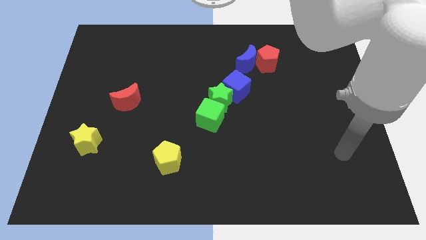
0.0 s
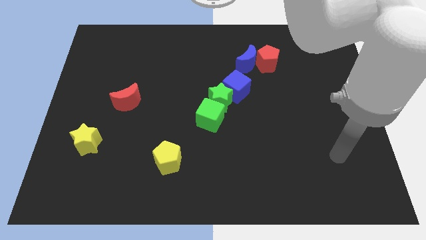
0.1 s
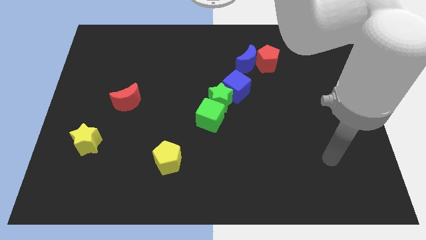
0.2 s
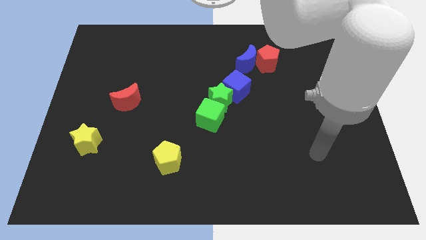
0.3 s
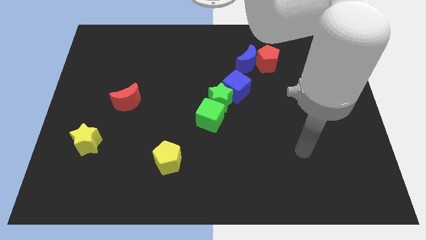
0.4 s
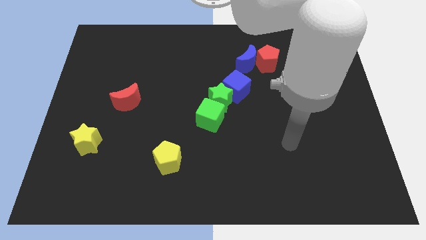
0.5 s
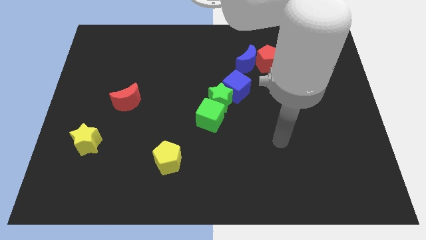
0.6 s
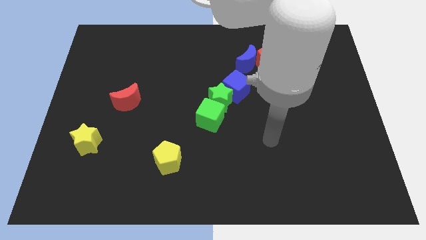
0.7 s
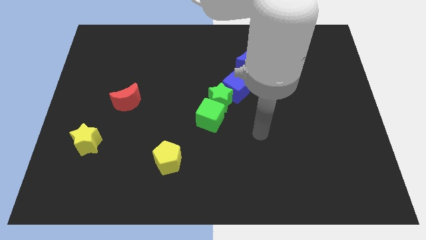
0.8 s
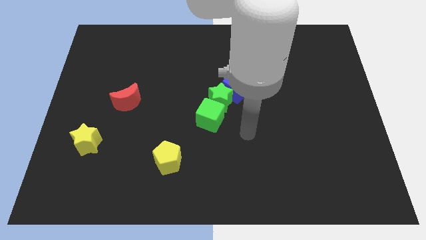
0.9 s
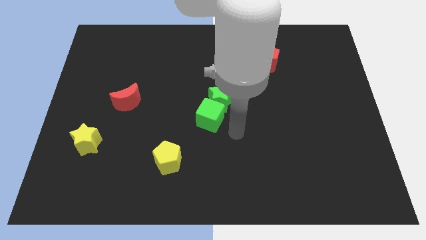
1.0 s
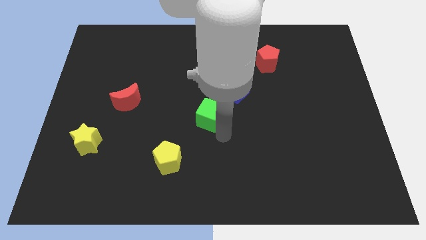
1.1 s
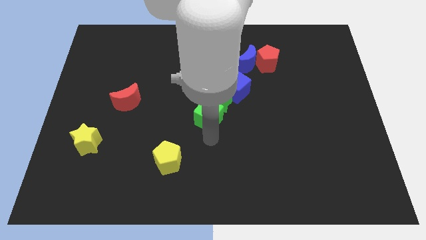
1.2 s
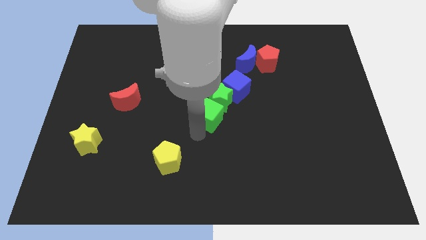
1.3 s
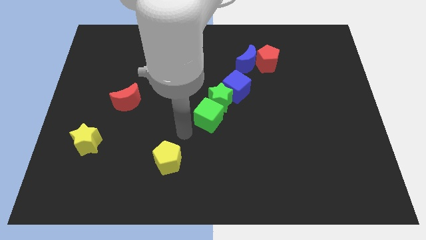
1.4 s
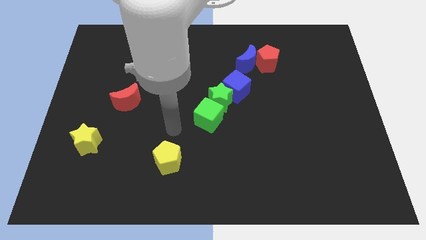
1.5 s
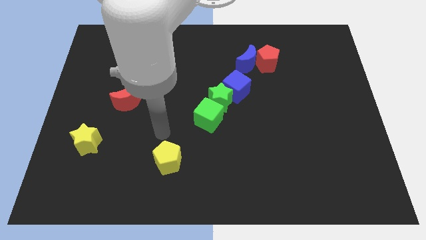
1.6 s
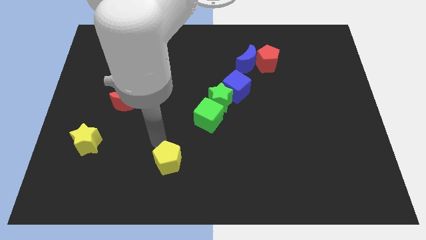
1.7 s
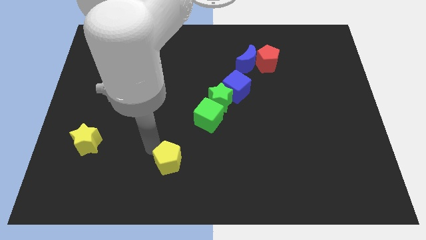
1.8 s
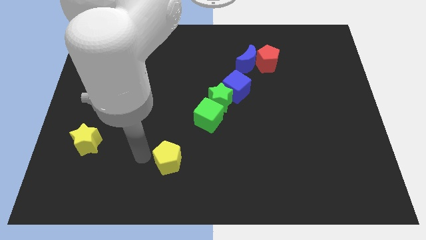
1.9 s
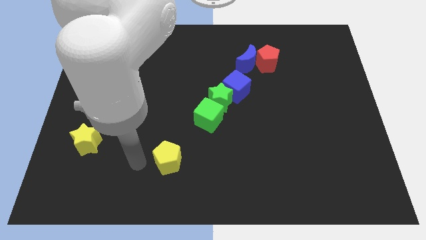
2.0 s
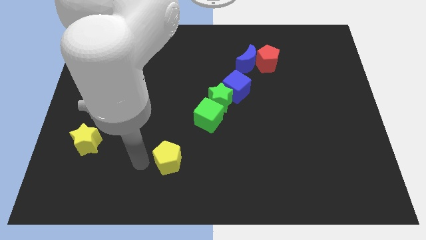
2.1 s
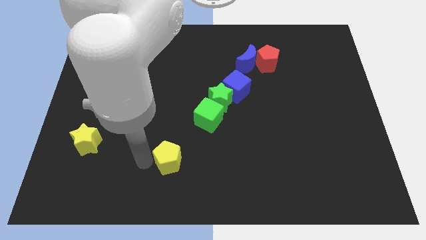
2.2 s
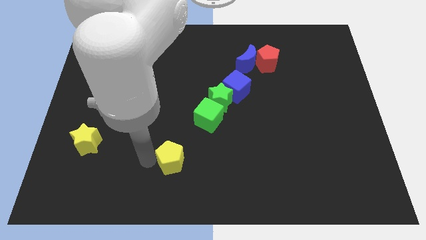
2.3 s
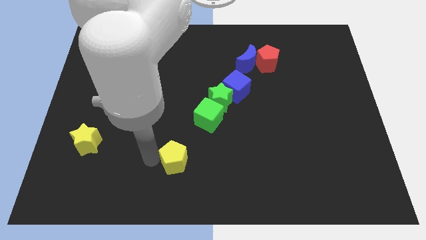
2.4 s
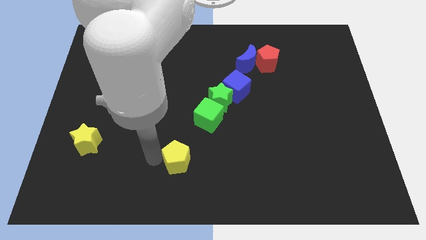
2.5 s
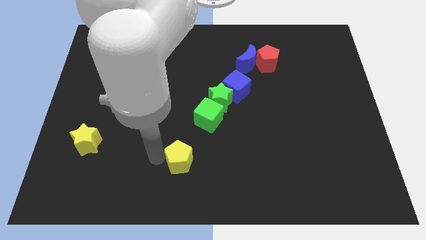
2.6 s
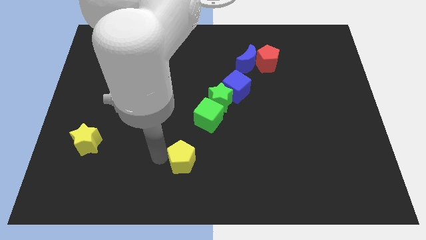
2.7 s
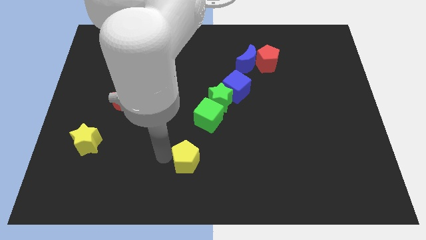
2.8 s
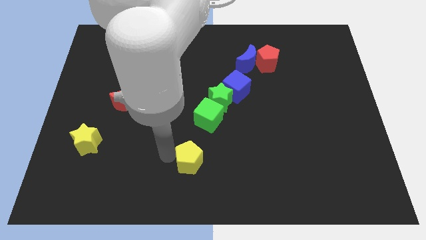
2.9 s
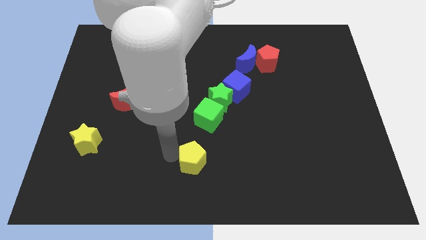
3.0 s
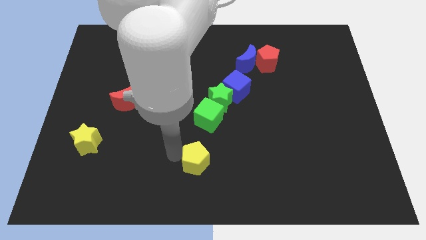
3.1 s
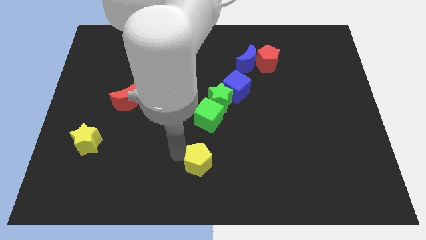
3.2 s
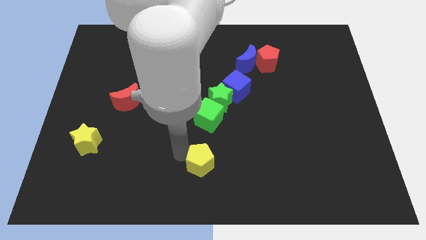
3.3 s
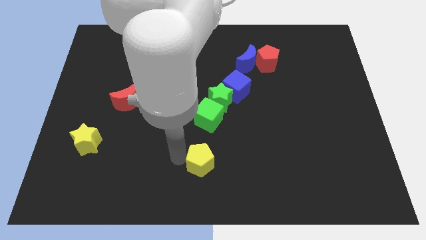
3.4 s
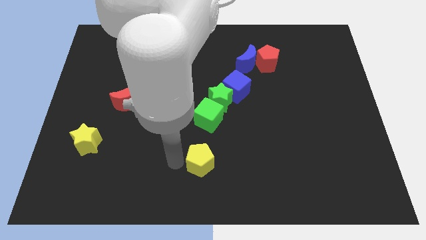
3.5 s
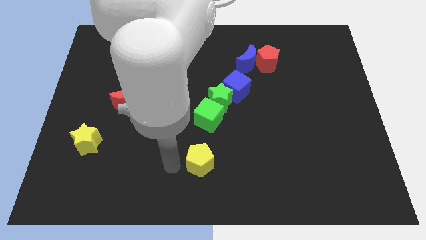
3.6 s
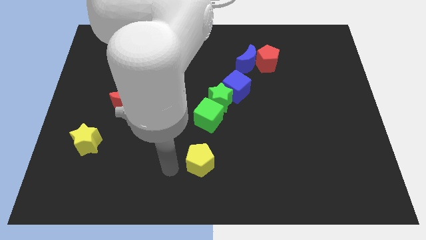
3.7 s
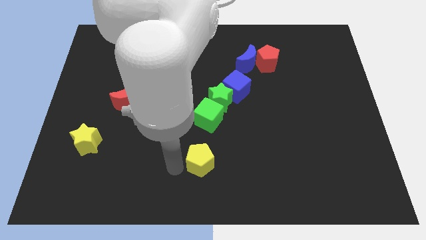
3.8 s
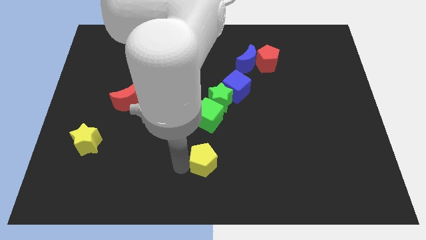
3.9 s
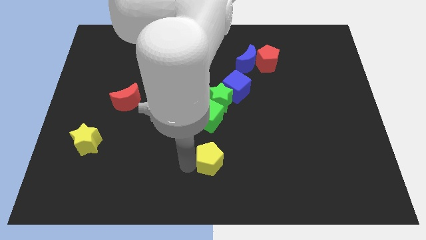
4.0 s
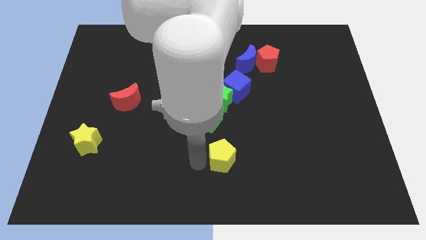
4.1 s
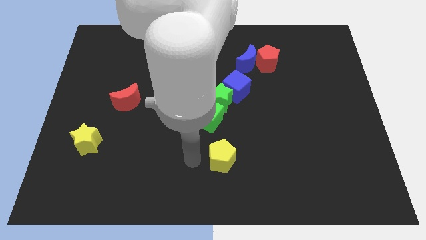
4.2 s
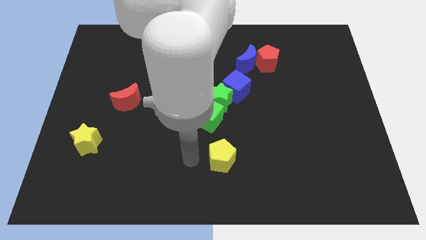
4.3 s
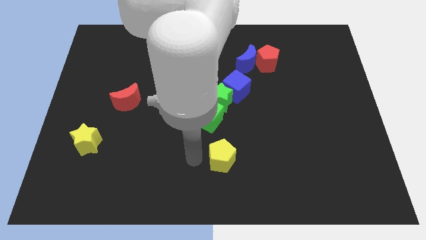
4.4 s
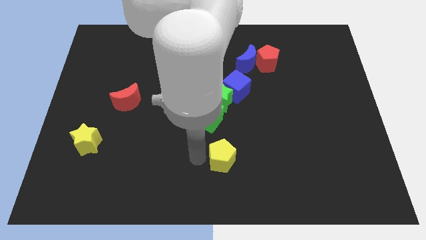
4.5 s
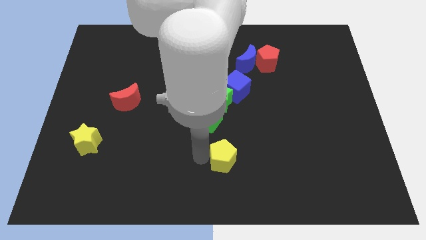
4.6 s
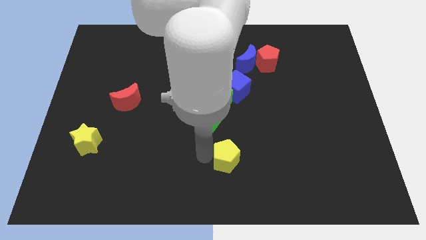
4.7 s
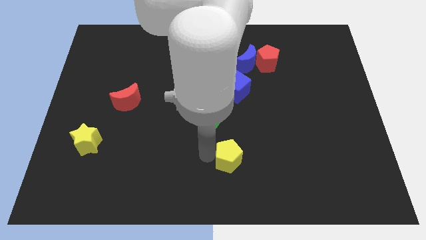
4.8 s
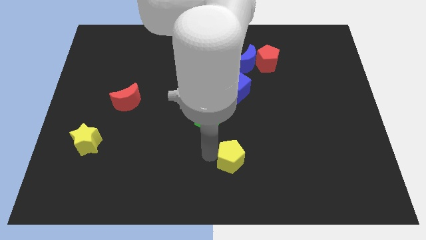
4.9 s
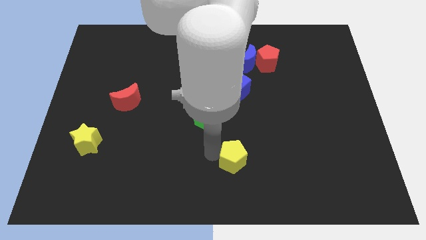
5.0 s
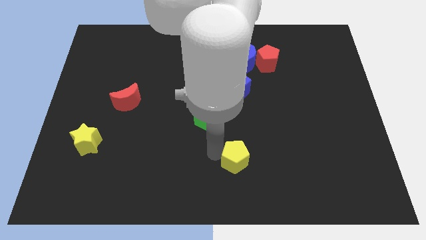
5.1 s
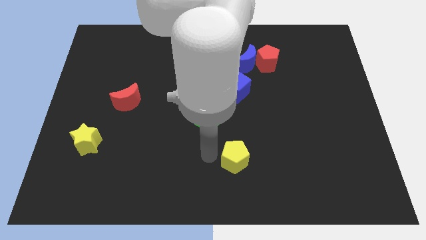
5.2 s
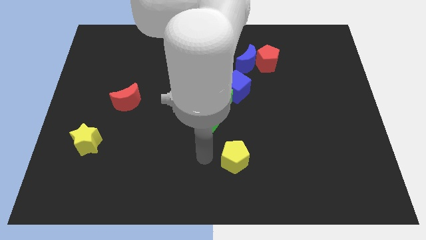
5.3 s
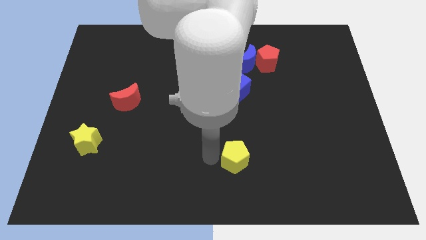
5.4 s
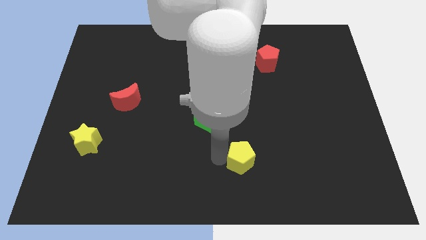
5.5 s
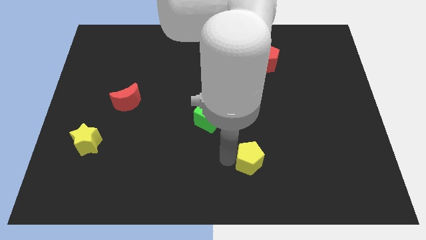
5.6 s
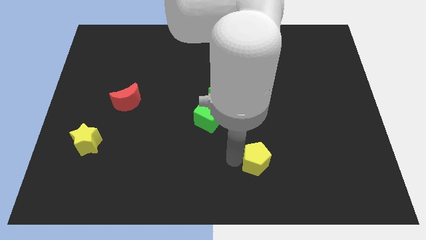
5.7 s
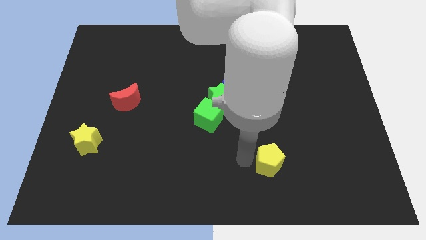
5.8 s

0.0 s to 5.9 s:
slide the yellow pentagon right

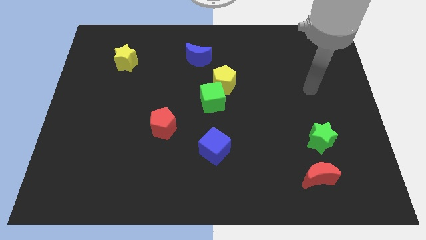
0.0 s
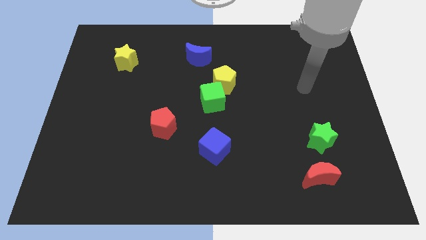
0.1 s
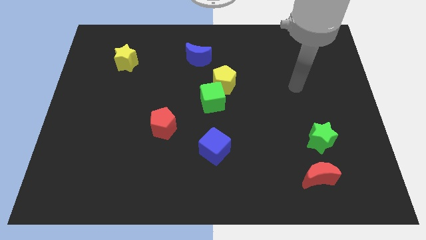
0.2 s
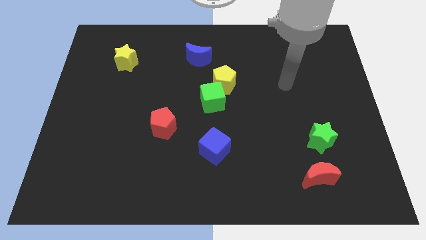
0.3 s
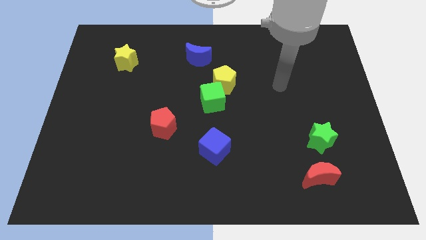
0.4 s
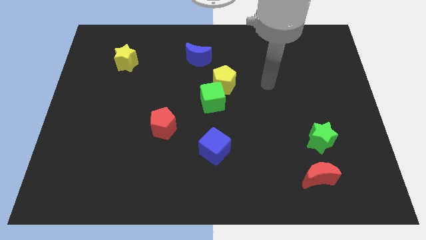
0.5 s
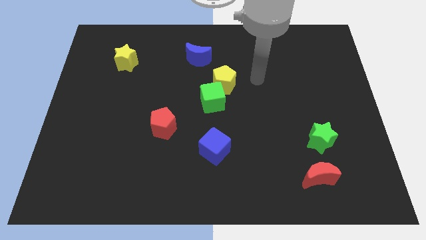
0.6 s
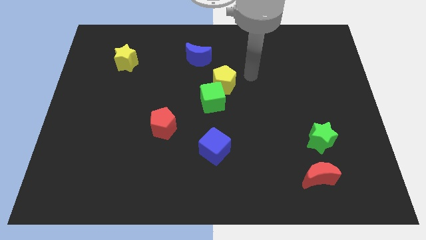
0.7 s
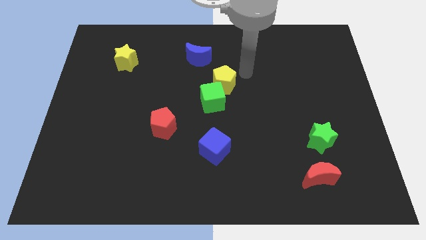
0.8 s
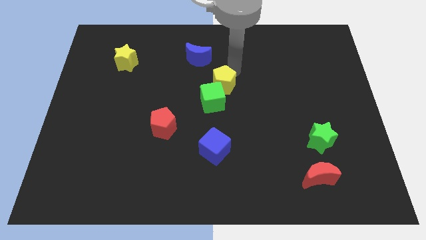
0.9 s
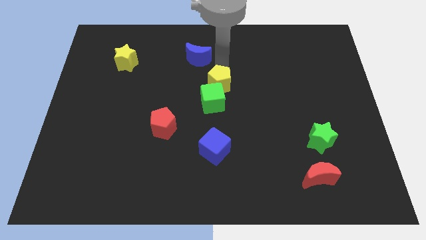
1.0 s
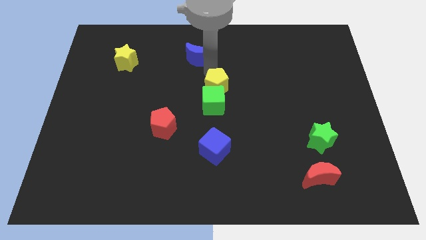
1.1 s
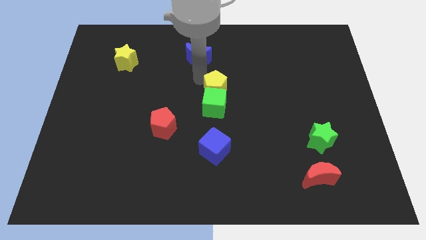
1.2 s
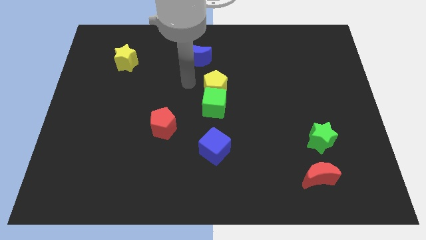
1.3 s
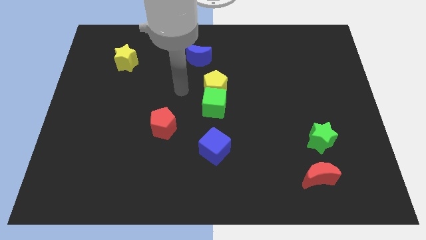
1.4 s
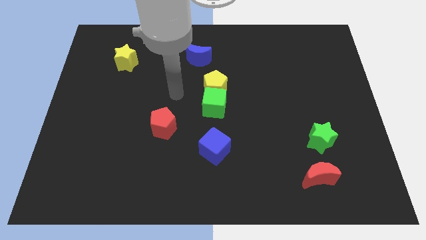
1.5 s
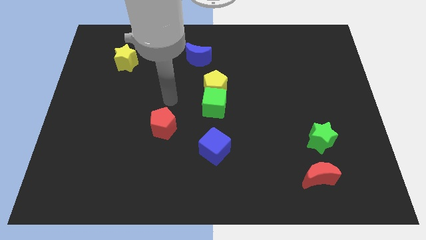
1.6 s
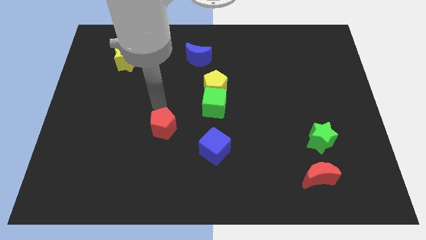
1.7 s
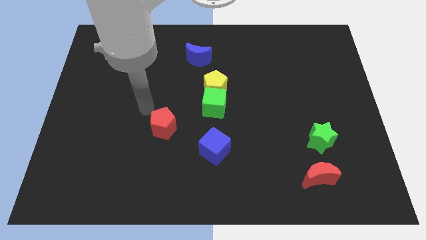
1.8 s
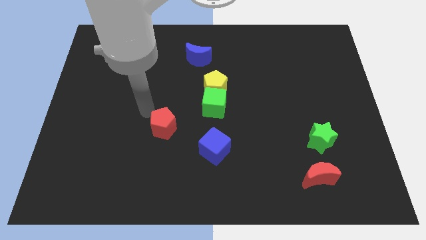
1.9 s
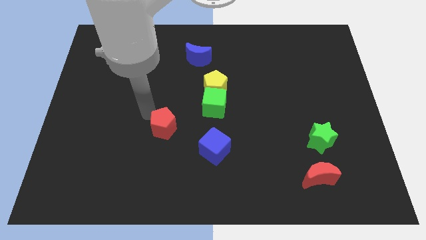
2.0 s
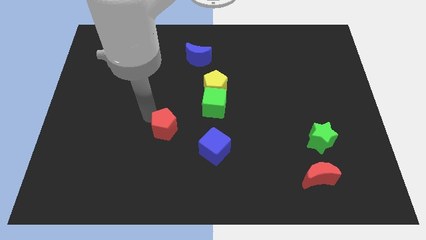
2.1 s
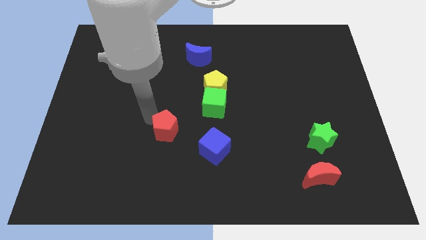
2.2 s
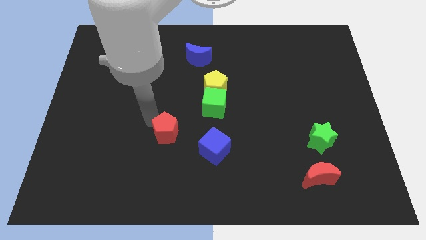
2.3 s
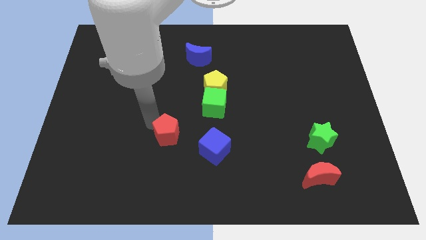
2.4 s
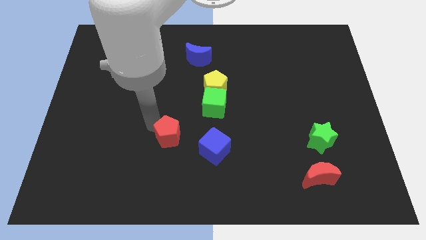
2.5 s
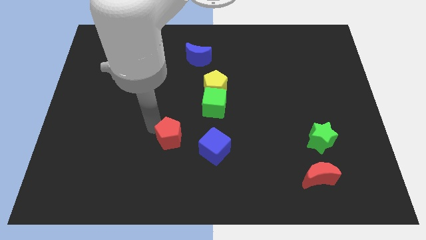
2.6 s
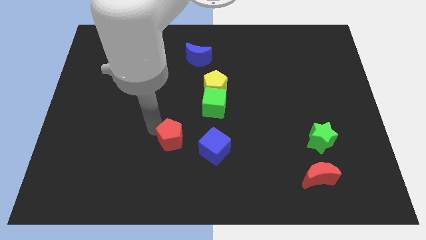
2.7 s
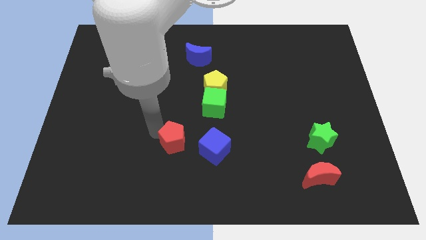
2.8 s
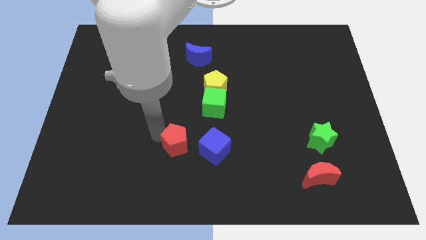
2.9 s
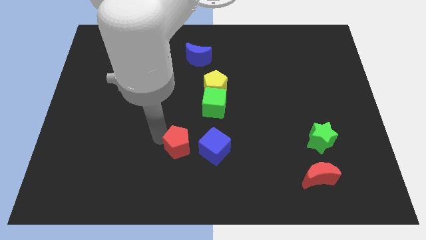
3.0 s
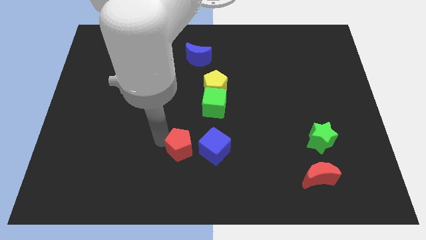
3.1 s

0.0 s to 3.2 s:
move the red pentagon a little bit downwards and to the right
